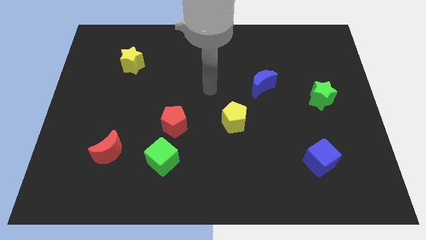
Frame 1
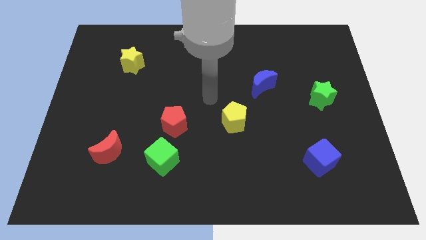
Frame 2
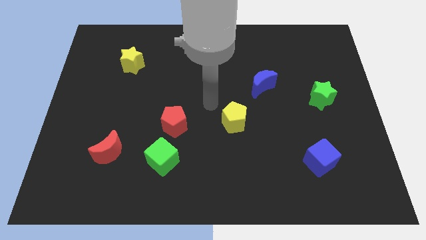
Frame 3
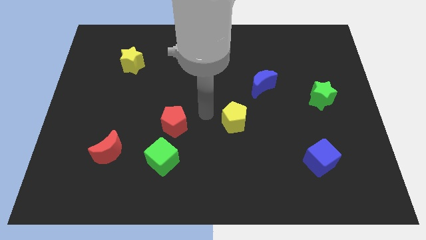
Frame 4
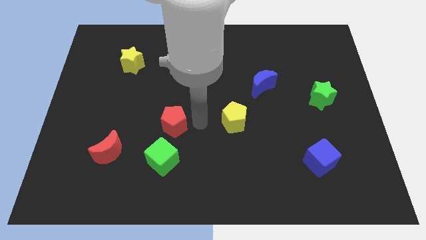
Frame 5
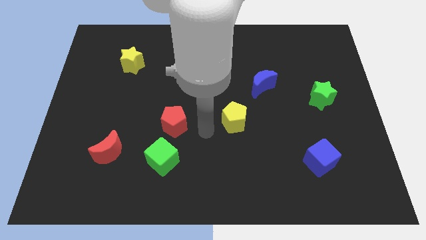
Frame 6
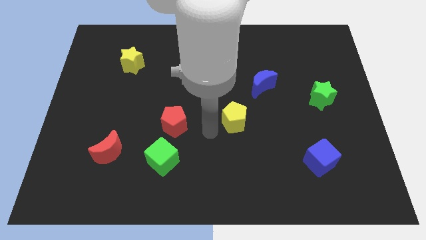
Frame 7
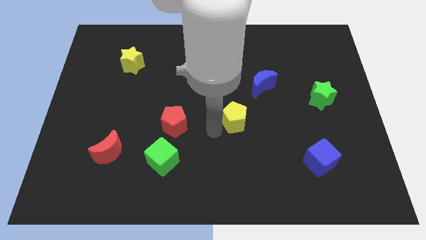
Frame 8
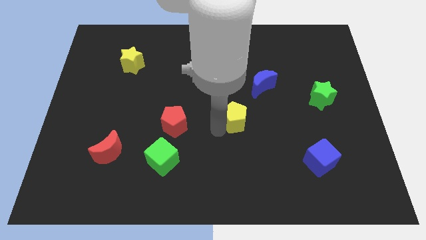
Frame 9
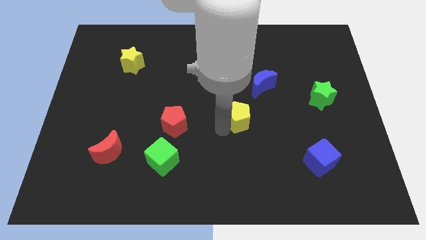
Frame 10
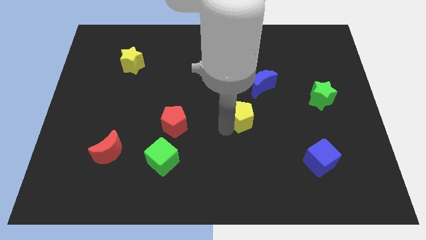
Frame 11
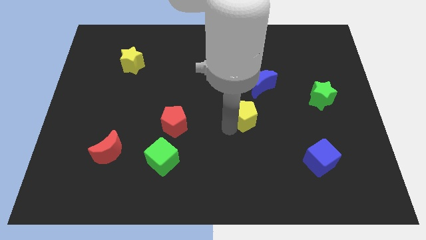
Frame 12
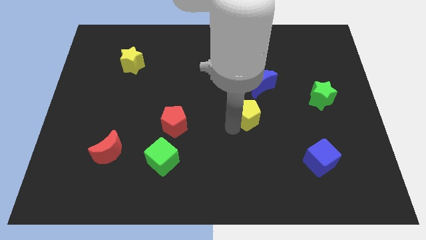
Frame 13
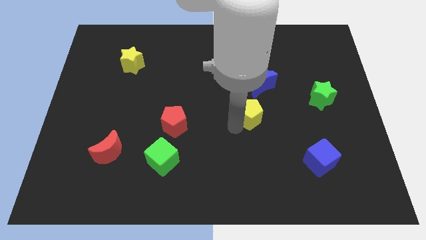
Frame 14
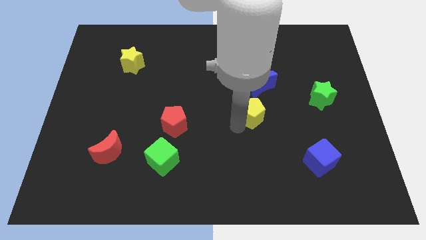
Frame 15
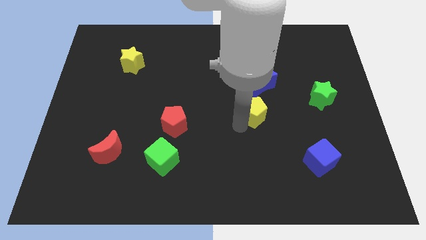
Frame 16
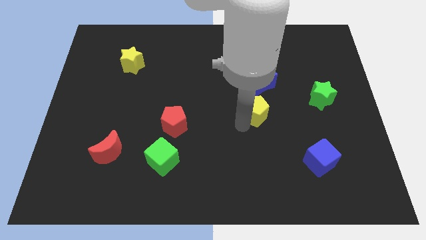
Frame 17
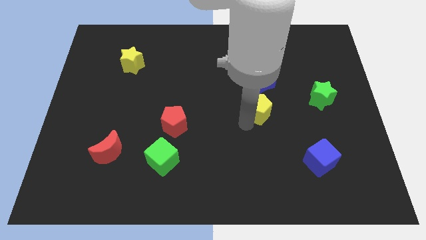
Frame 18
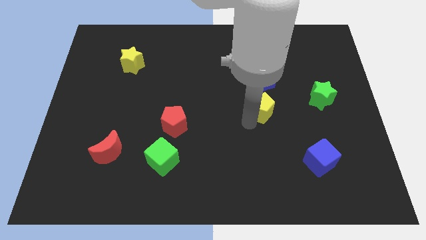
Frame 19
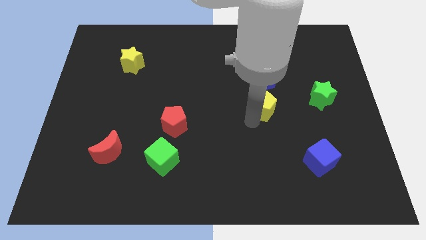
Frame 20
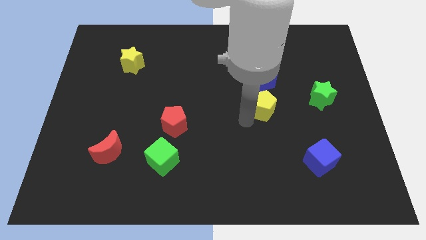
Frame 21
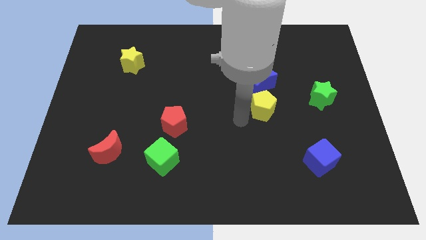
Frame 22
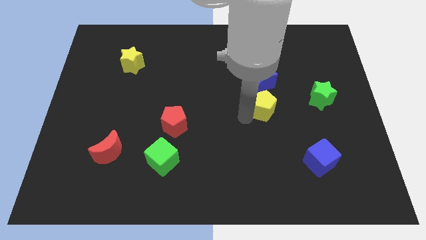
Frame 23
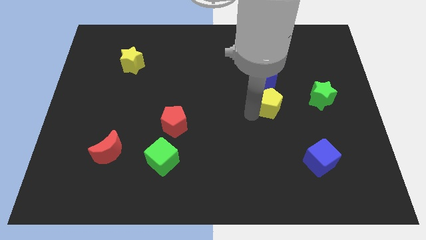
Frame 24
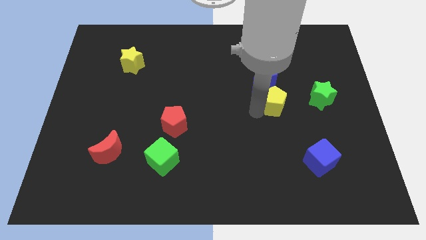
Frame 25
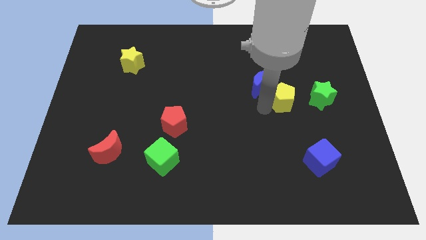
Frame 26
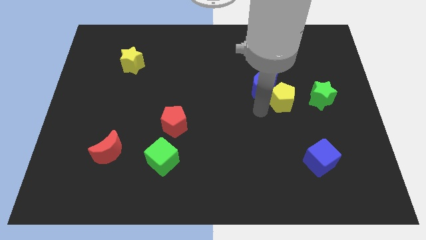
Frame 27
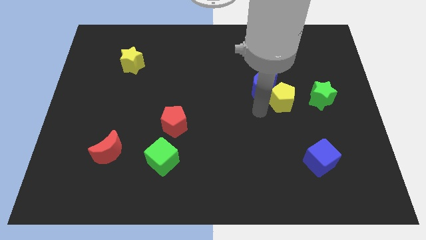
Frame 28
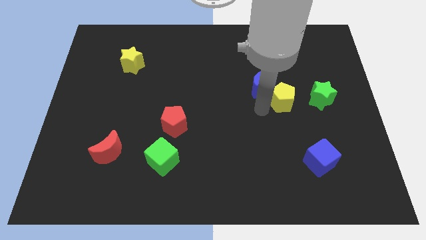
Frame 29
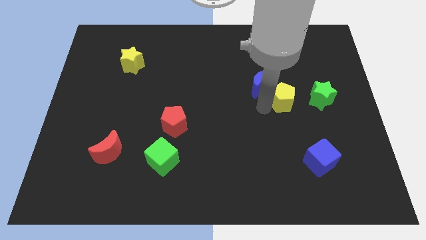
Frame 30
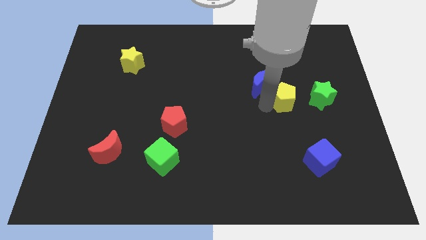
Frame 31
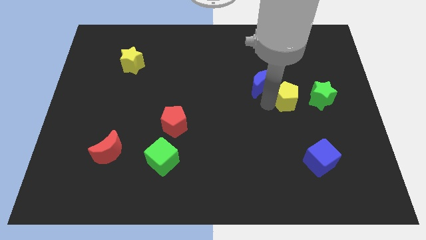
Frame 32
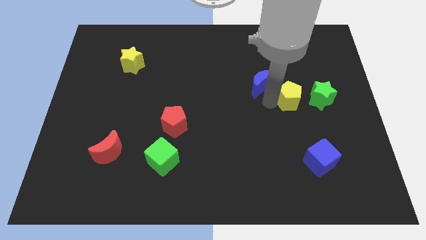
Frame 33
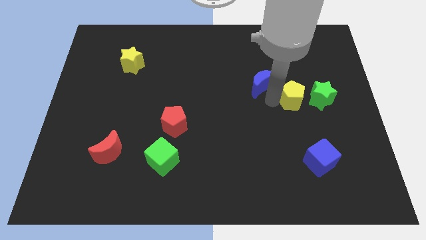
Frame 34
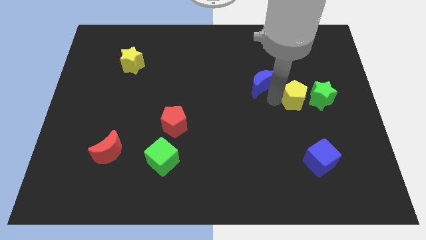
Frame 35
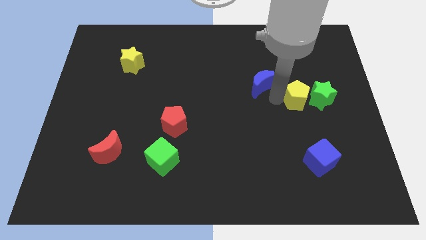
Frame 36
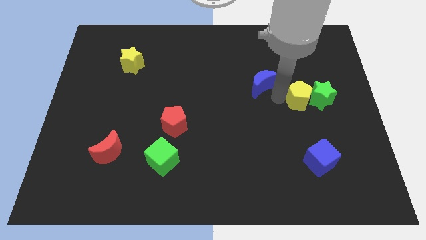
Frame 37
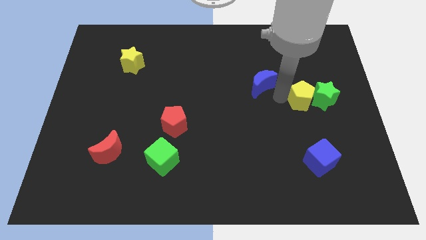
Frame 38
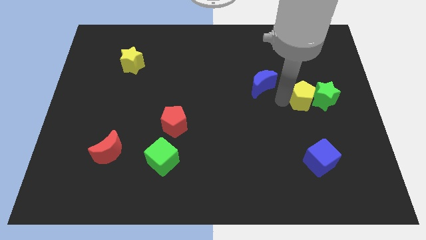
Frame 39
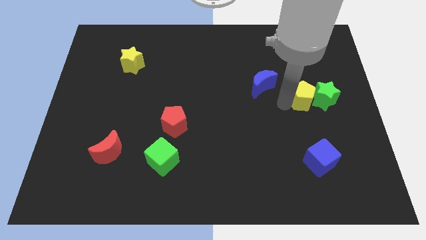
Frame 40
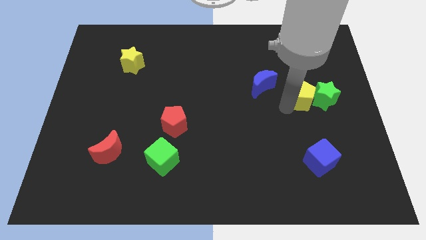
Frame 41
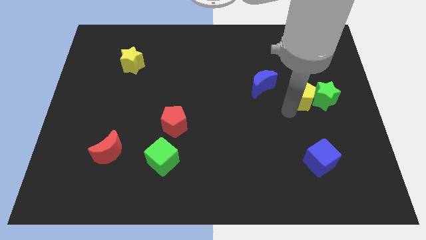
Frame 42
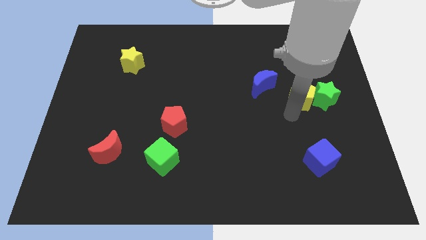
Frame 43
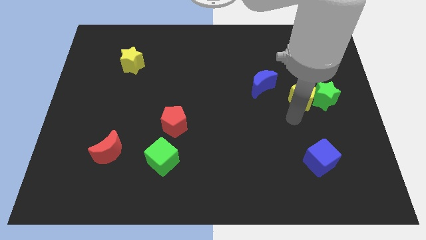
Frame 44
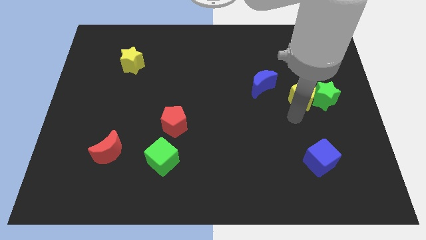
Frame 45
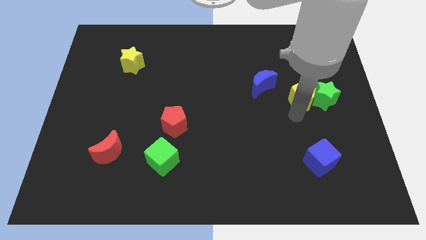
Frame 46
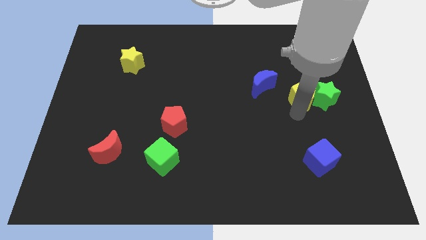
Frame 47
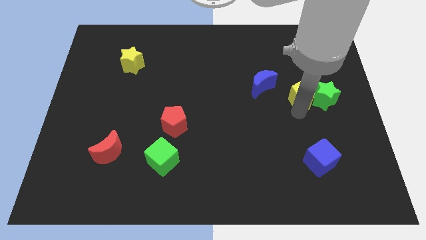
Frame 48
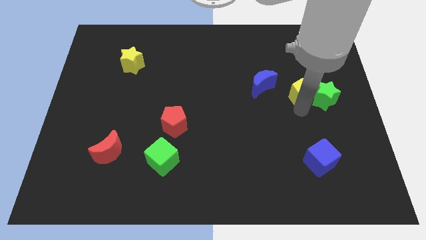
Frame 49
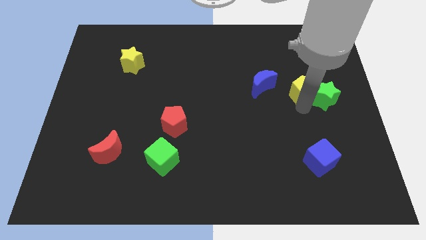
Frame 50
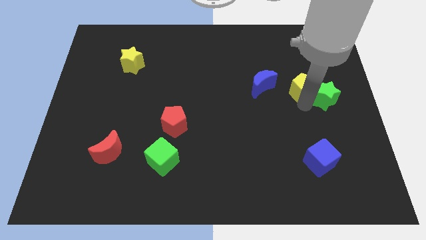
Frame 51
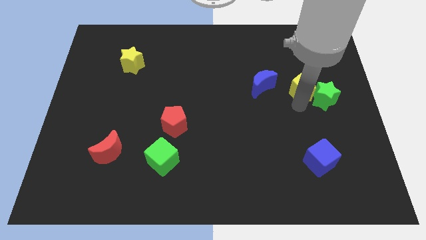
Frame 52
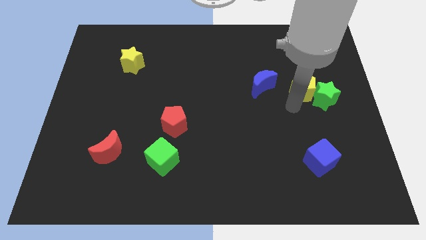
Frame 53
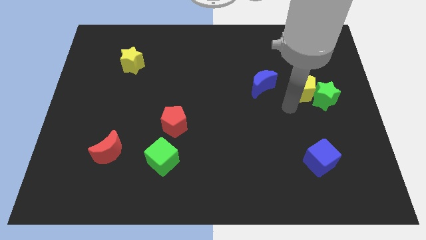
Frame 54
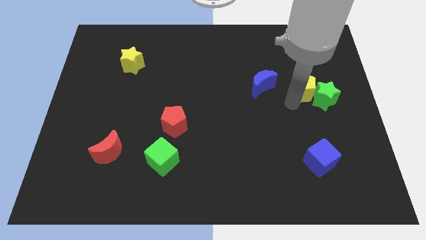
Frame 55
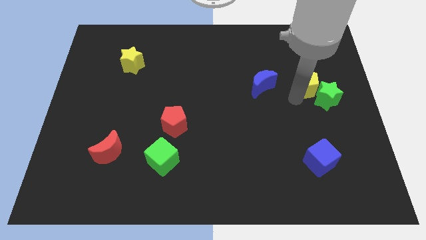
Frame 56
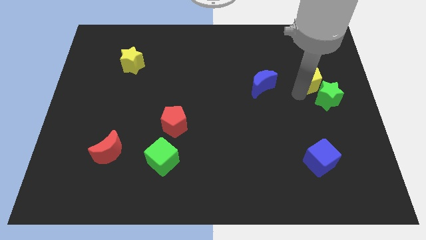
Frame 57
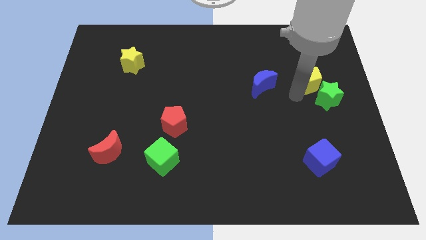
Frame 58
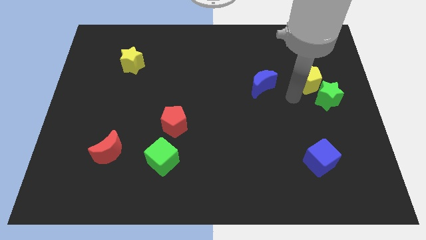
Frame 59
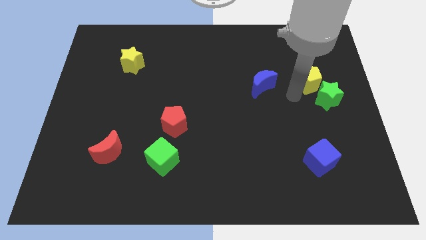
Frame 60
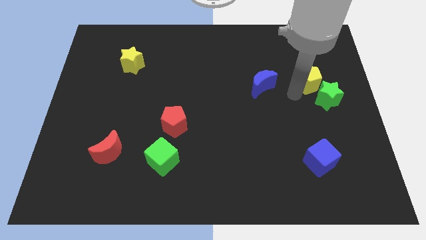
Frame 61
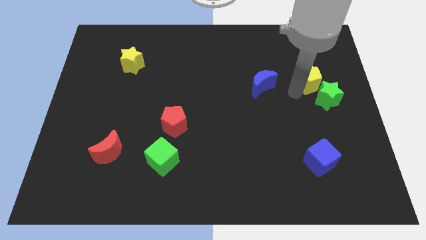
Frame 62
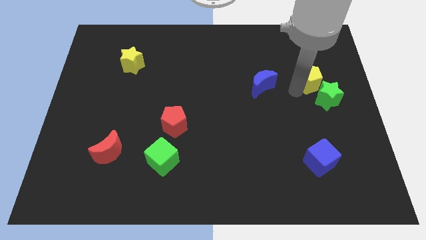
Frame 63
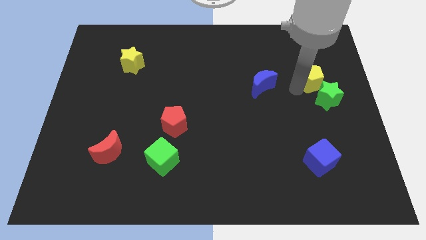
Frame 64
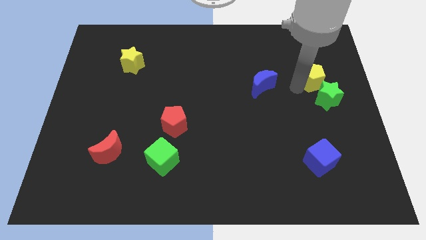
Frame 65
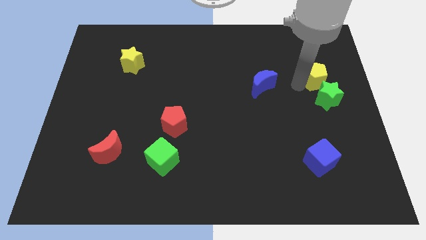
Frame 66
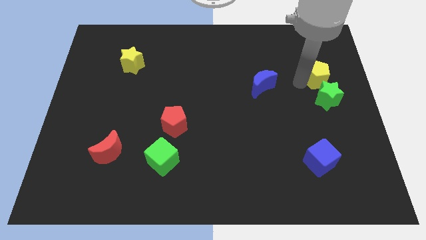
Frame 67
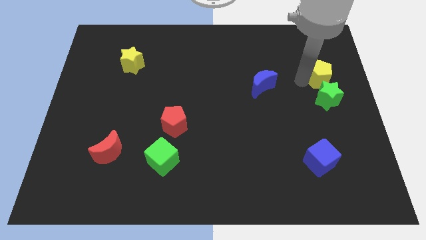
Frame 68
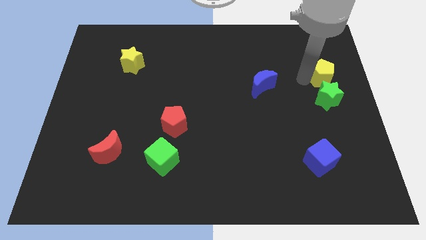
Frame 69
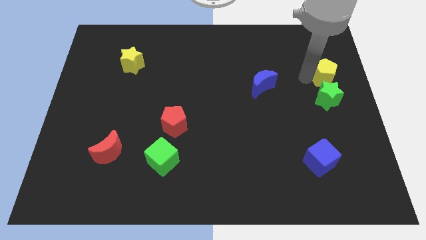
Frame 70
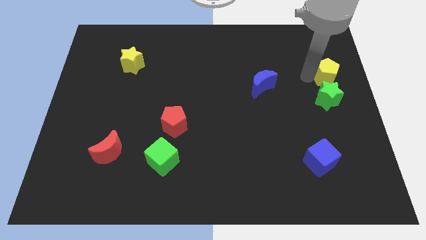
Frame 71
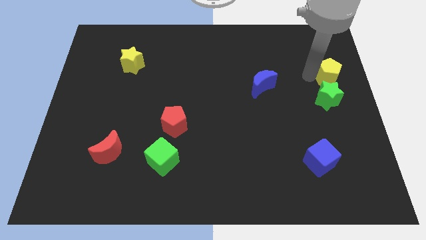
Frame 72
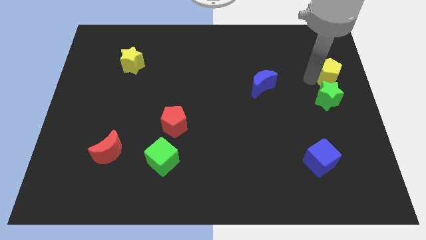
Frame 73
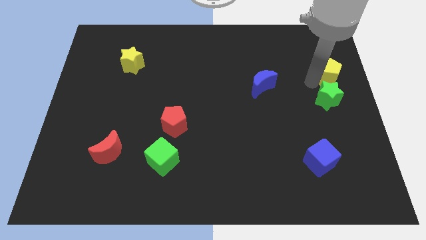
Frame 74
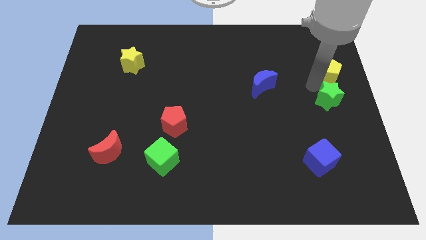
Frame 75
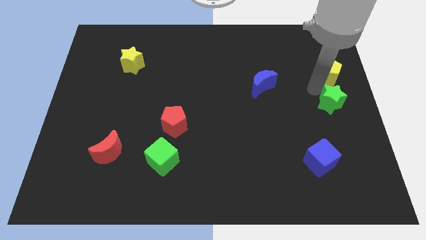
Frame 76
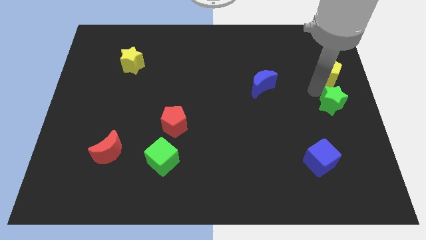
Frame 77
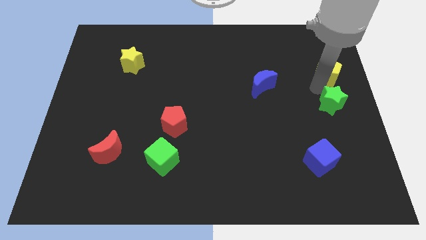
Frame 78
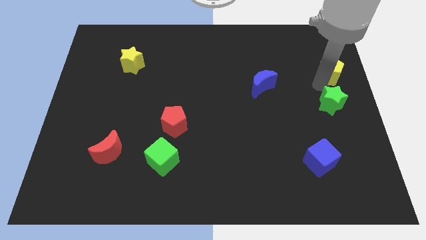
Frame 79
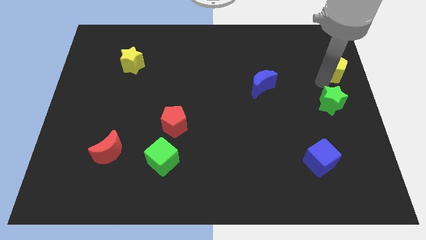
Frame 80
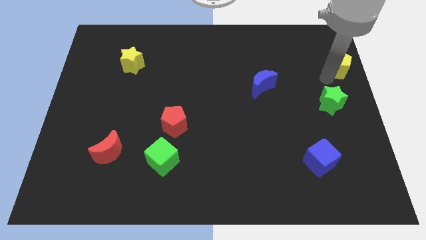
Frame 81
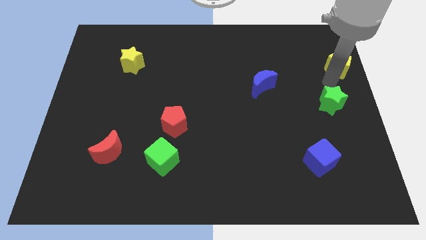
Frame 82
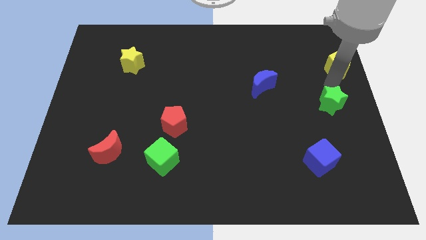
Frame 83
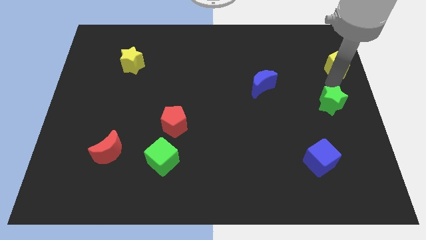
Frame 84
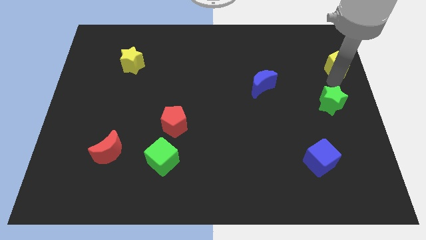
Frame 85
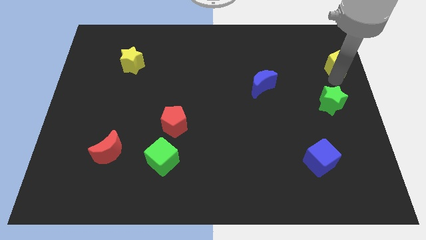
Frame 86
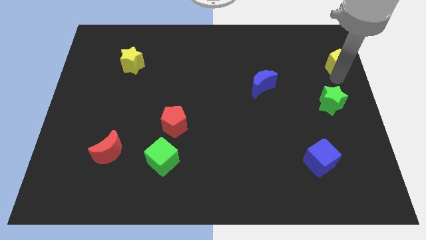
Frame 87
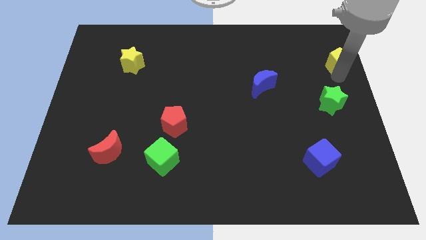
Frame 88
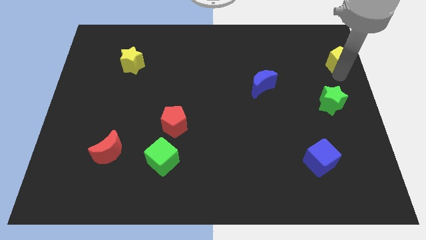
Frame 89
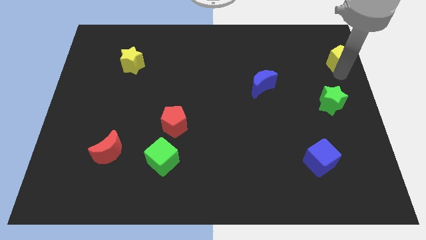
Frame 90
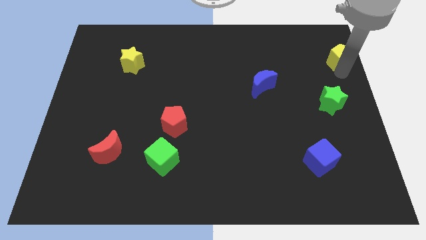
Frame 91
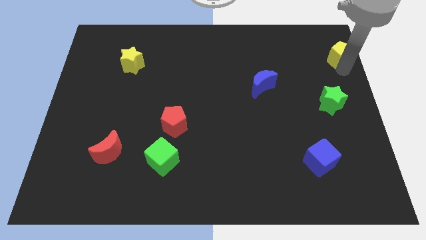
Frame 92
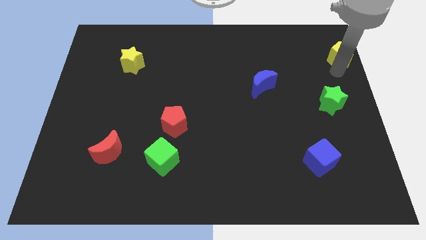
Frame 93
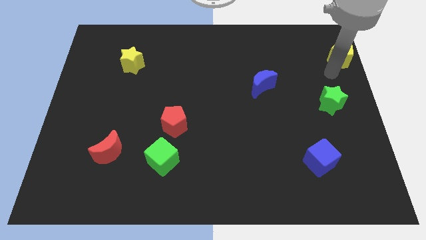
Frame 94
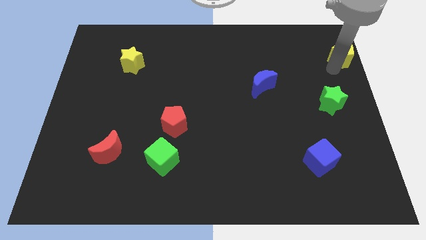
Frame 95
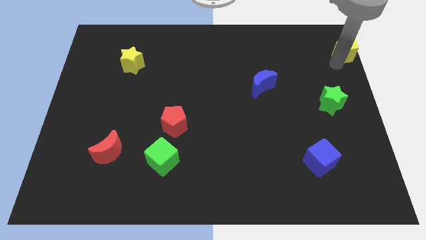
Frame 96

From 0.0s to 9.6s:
move the yellow pentagon to the upper right corner
